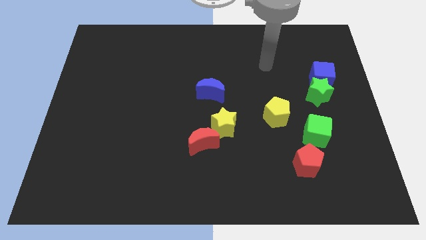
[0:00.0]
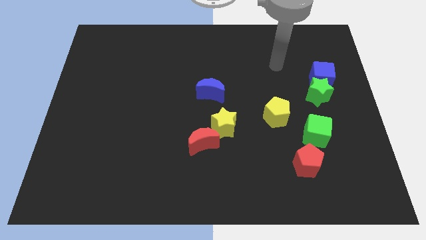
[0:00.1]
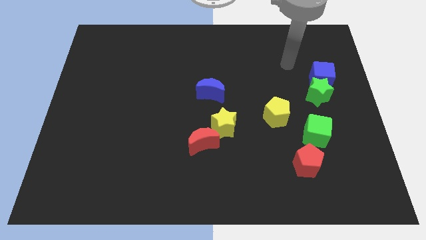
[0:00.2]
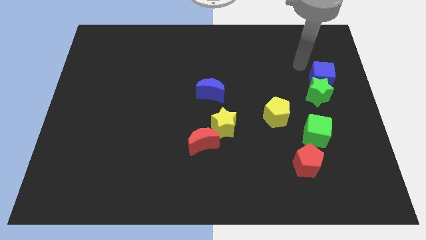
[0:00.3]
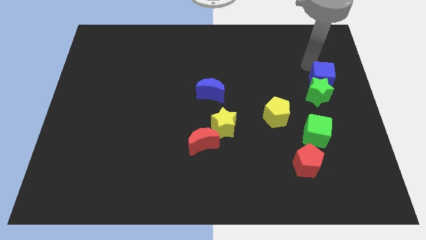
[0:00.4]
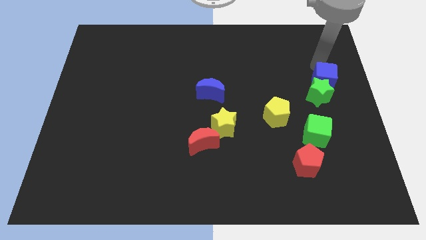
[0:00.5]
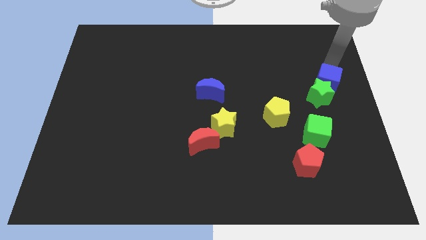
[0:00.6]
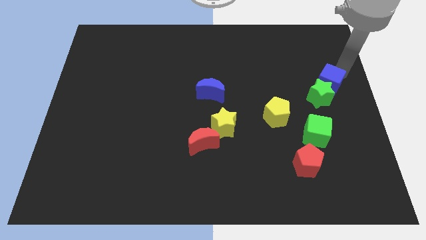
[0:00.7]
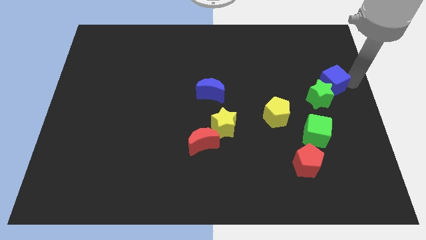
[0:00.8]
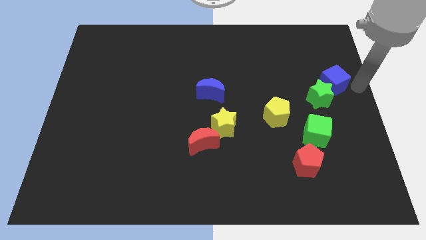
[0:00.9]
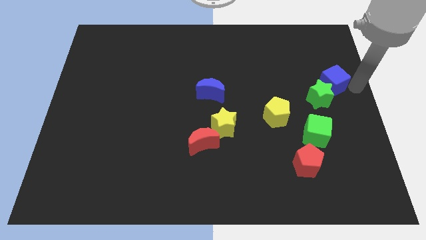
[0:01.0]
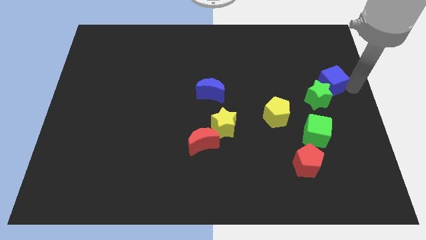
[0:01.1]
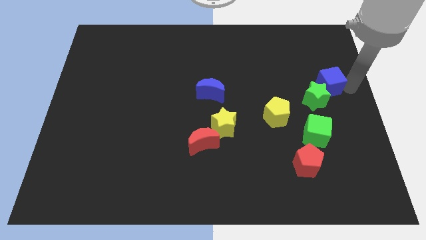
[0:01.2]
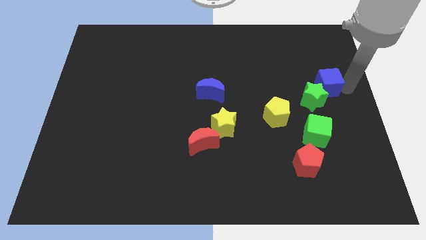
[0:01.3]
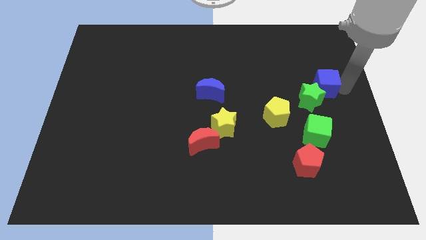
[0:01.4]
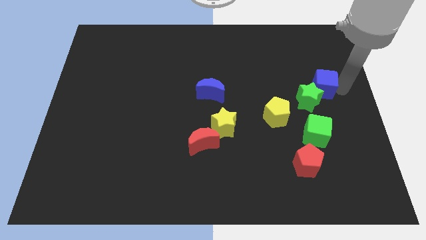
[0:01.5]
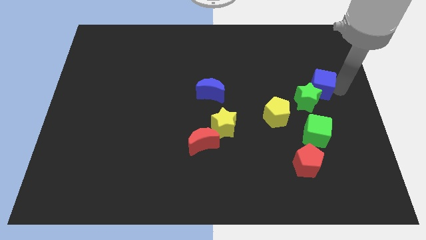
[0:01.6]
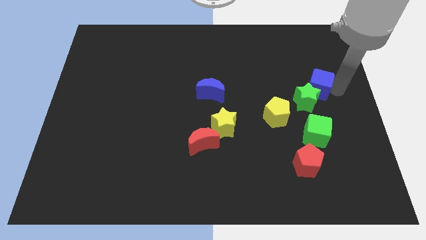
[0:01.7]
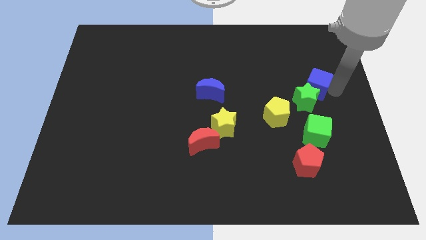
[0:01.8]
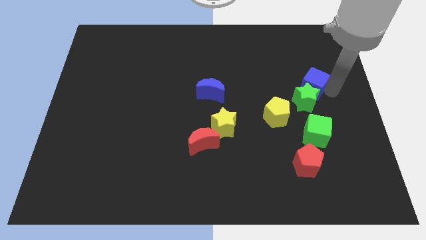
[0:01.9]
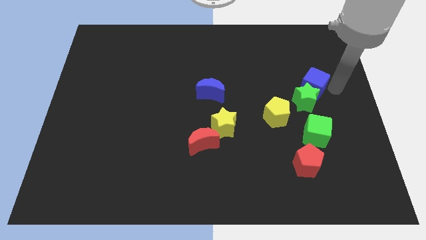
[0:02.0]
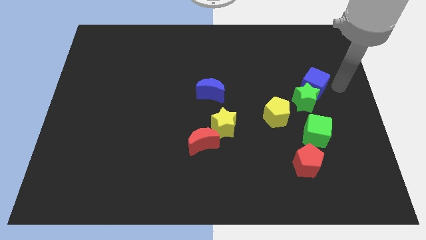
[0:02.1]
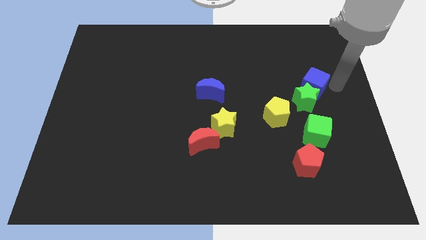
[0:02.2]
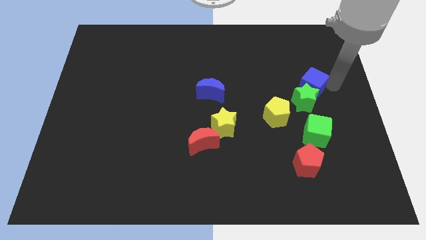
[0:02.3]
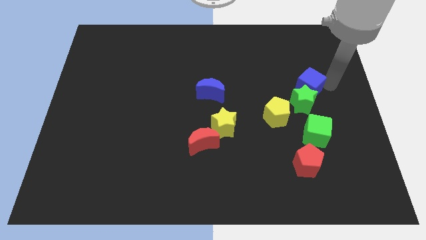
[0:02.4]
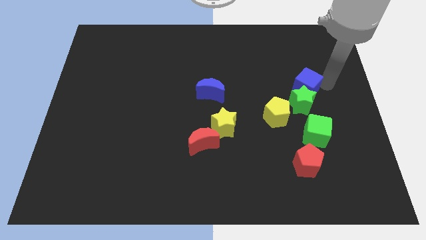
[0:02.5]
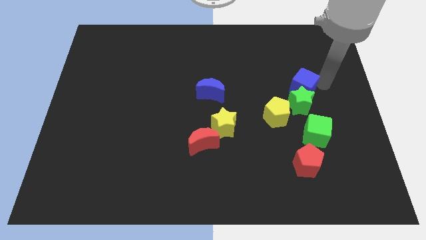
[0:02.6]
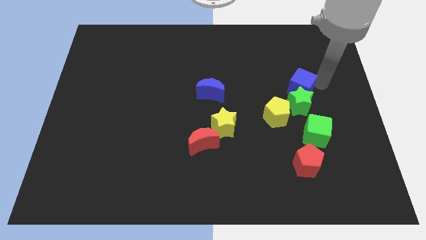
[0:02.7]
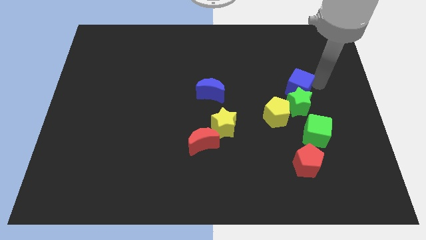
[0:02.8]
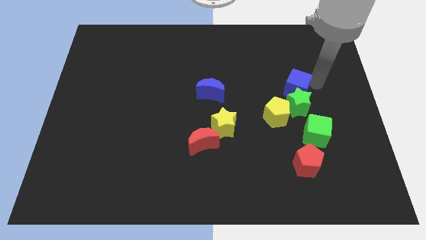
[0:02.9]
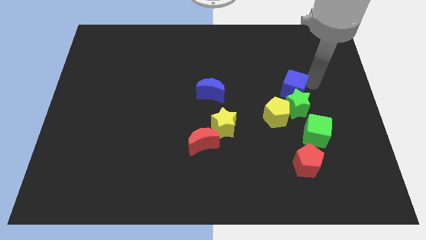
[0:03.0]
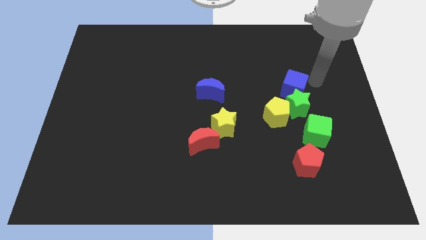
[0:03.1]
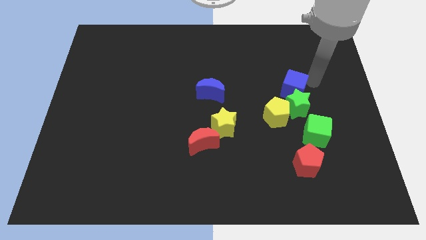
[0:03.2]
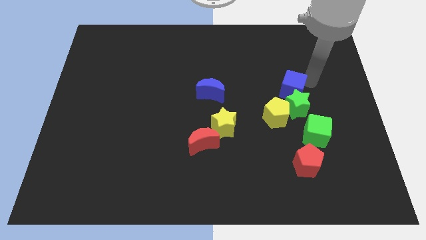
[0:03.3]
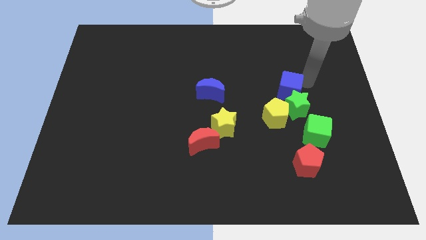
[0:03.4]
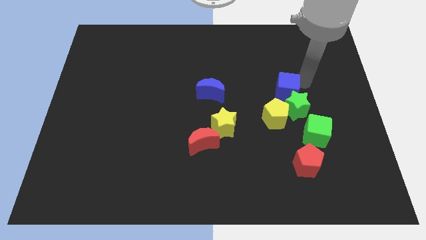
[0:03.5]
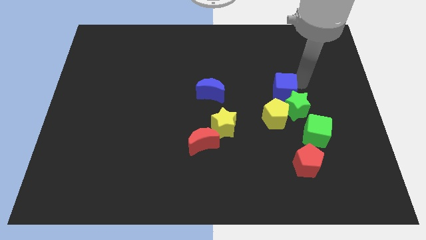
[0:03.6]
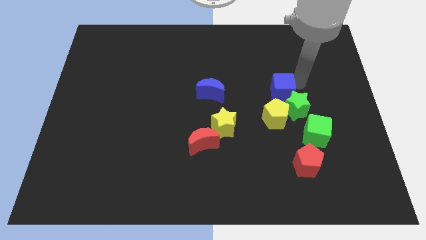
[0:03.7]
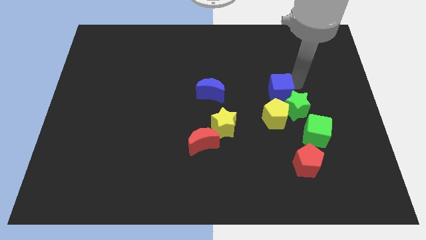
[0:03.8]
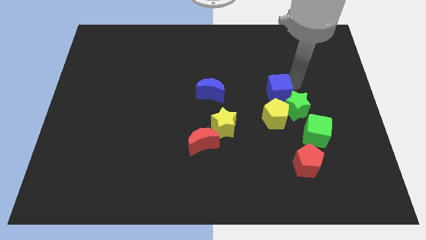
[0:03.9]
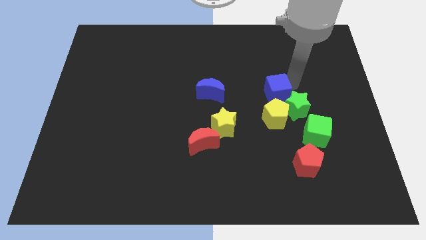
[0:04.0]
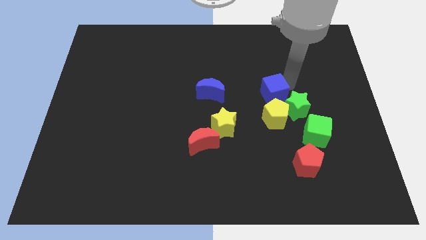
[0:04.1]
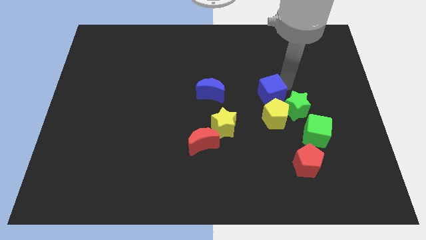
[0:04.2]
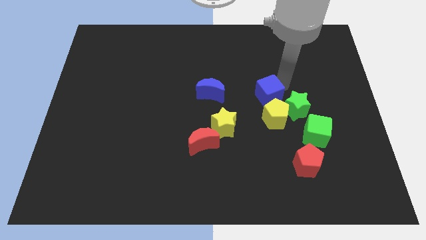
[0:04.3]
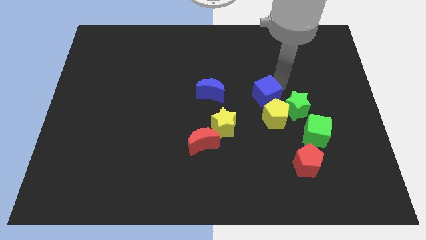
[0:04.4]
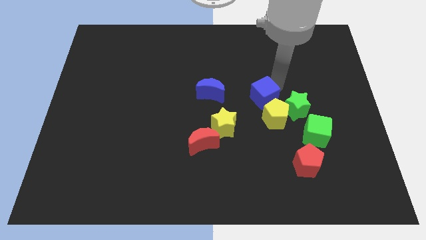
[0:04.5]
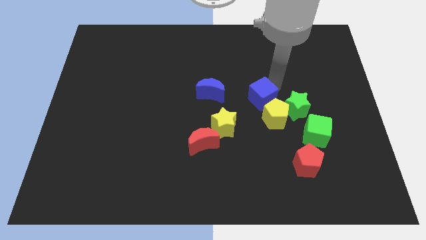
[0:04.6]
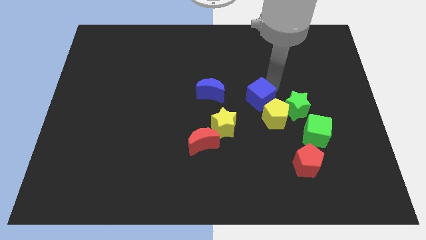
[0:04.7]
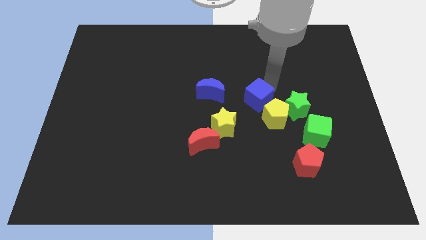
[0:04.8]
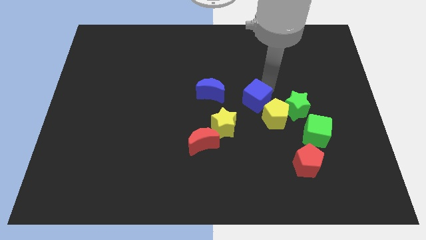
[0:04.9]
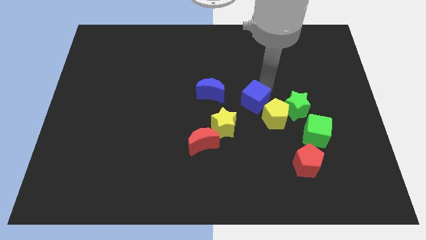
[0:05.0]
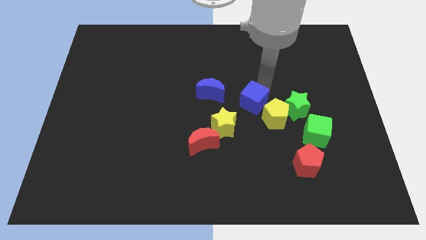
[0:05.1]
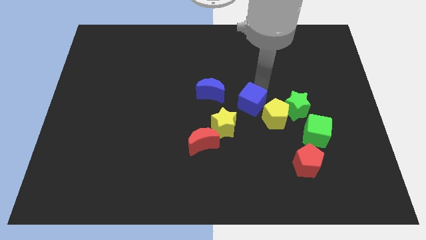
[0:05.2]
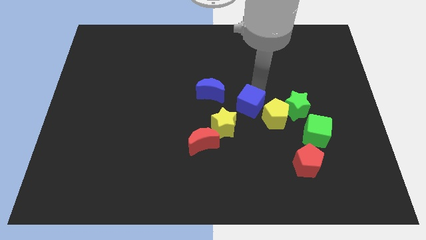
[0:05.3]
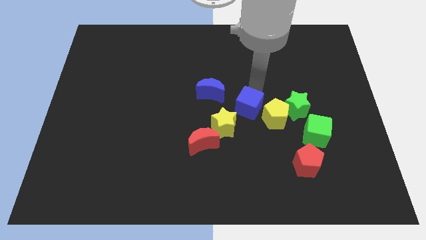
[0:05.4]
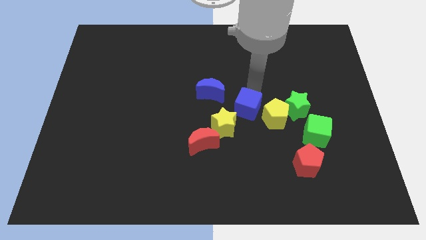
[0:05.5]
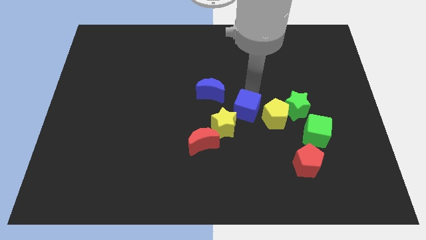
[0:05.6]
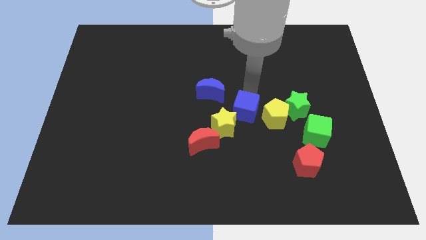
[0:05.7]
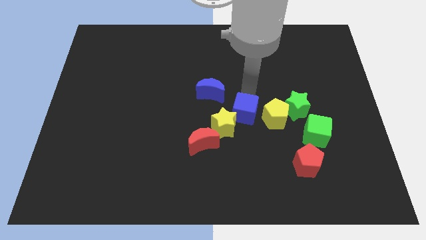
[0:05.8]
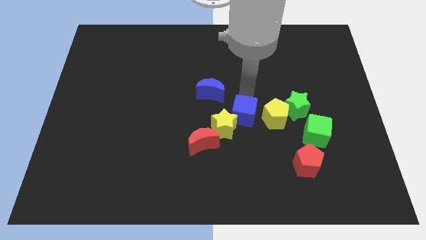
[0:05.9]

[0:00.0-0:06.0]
push the blue cube down and then left

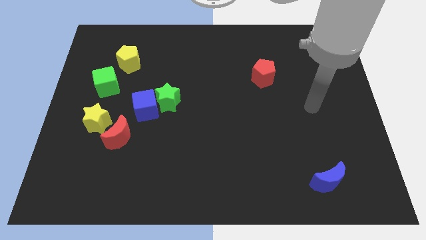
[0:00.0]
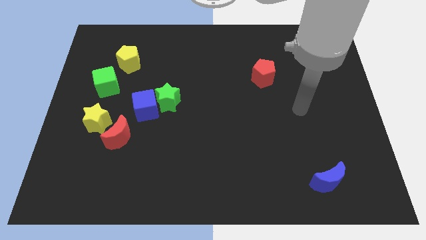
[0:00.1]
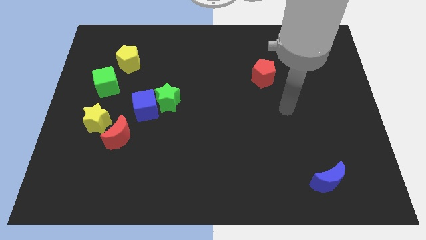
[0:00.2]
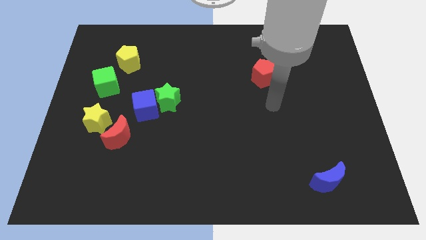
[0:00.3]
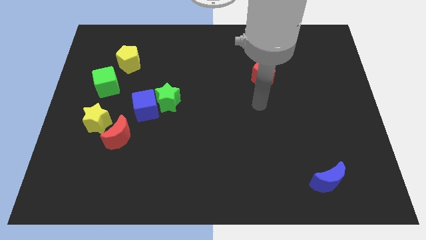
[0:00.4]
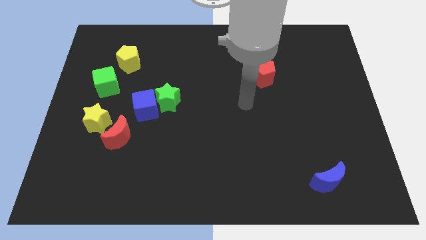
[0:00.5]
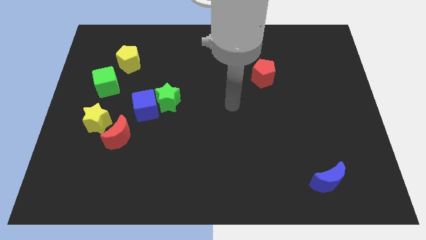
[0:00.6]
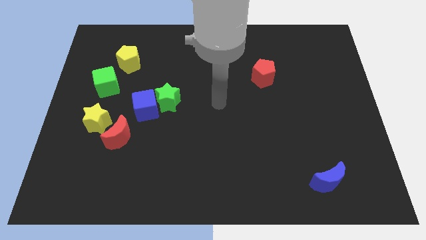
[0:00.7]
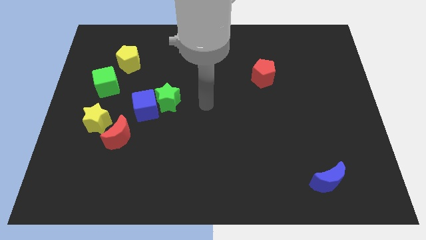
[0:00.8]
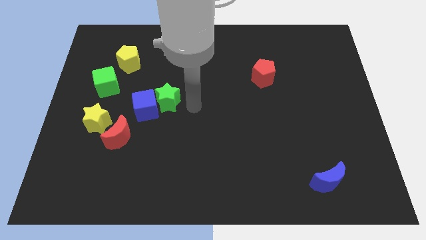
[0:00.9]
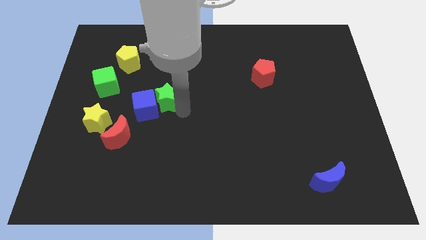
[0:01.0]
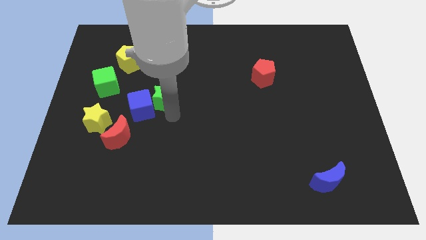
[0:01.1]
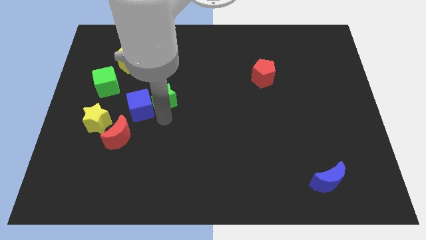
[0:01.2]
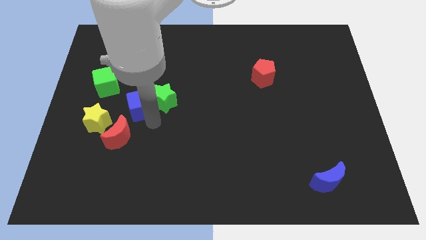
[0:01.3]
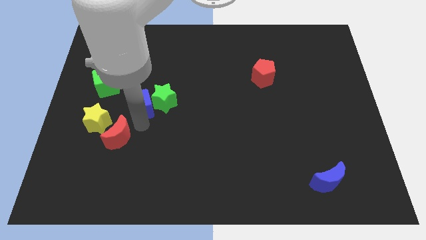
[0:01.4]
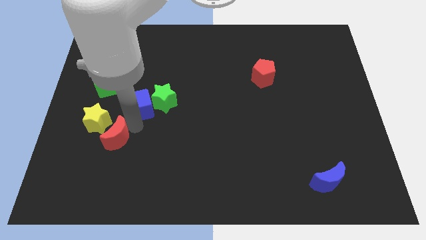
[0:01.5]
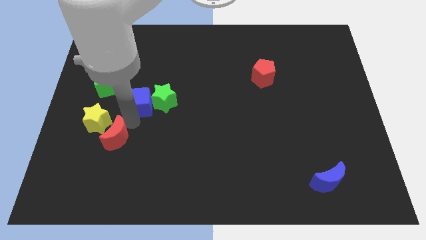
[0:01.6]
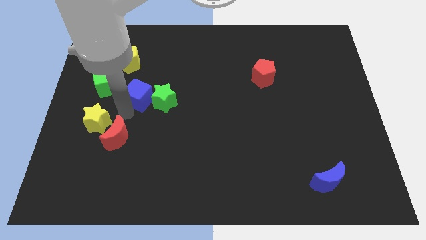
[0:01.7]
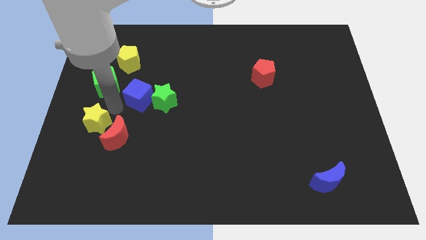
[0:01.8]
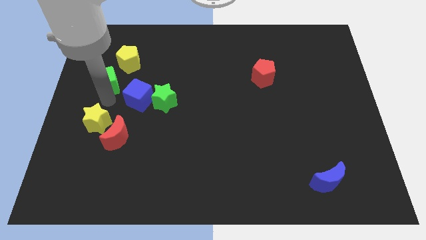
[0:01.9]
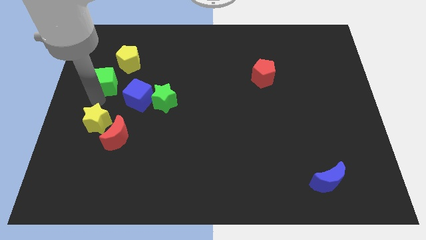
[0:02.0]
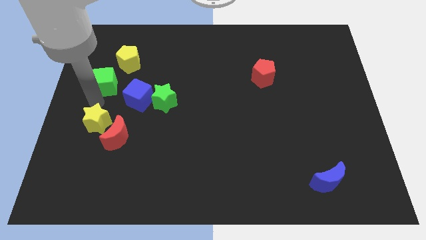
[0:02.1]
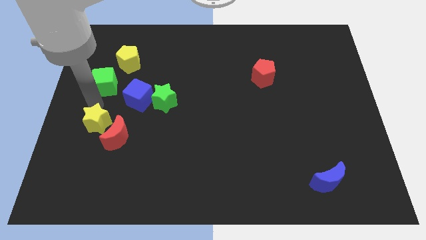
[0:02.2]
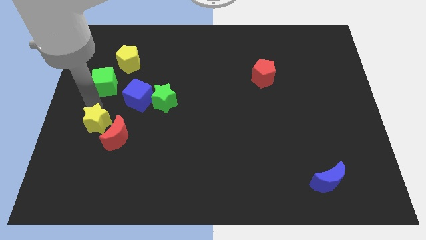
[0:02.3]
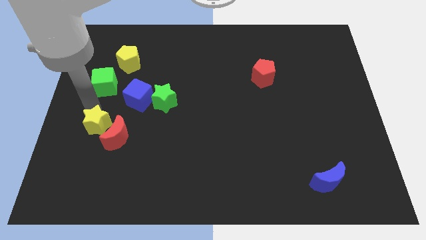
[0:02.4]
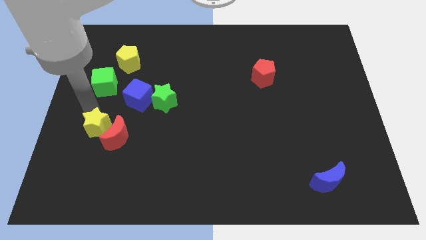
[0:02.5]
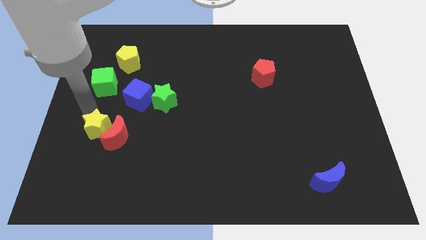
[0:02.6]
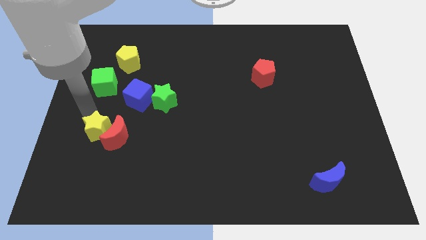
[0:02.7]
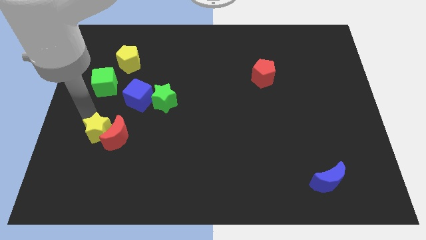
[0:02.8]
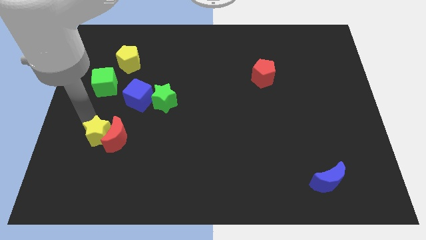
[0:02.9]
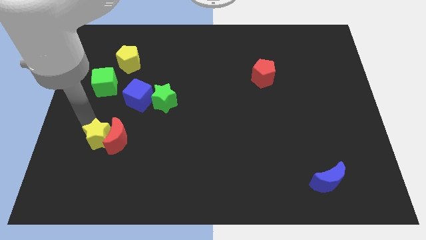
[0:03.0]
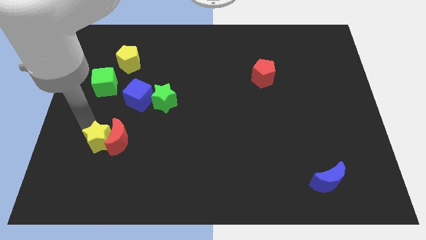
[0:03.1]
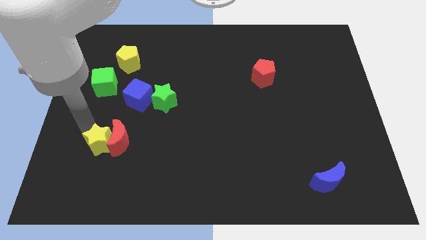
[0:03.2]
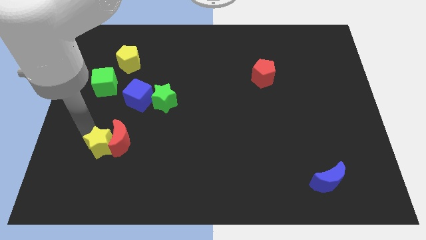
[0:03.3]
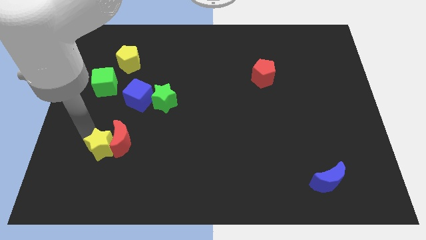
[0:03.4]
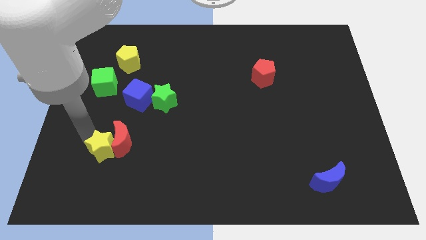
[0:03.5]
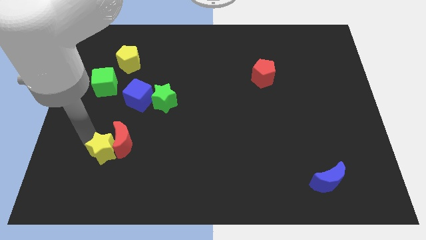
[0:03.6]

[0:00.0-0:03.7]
move the yellow star diagonally down and right somewhat
